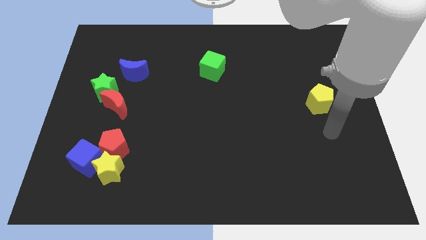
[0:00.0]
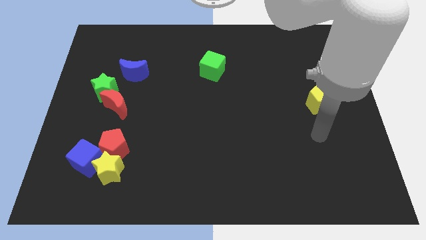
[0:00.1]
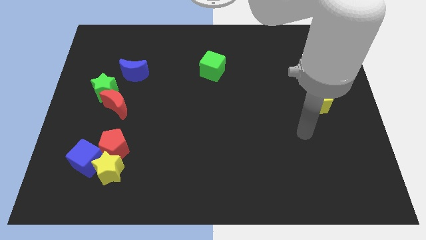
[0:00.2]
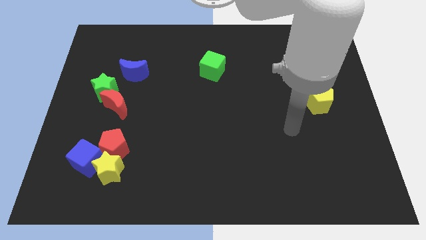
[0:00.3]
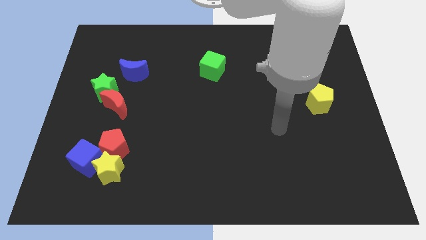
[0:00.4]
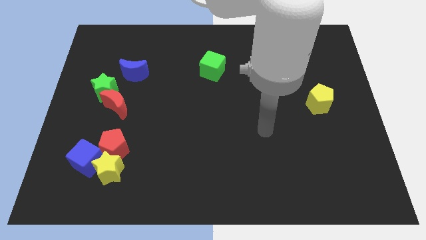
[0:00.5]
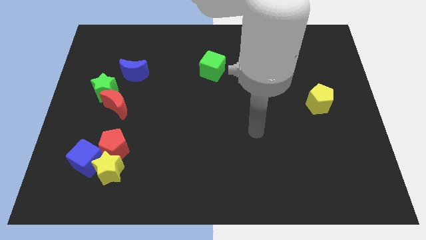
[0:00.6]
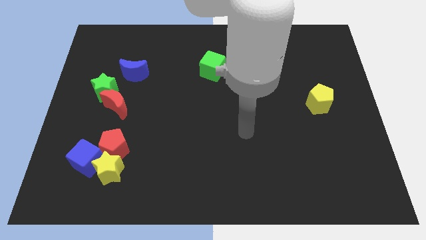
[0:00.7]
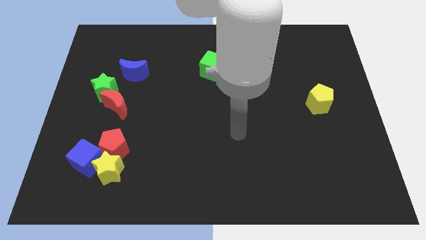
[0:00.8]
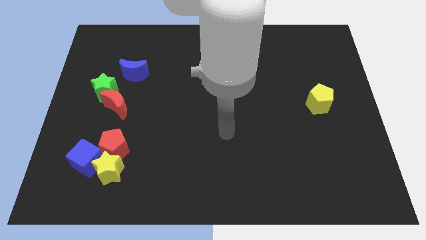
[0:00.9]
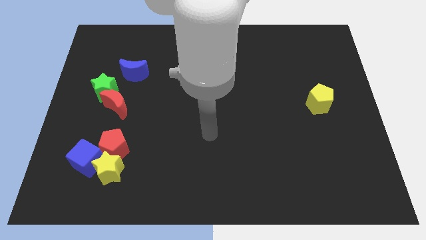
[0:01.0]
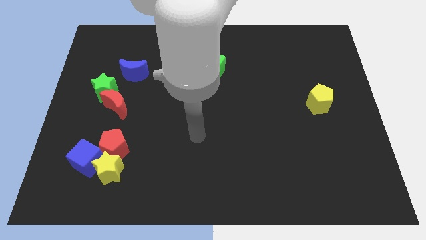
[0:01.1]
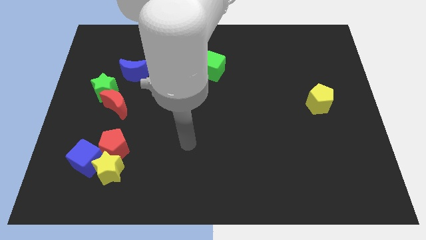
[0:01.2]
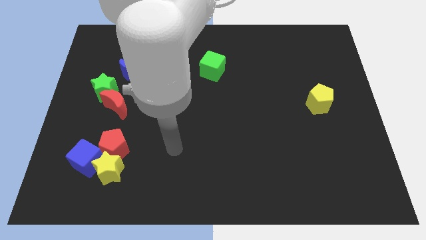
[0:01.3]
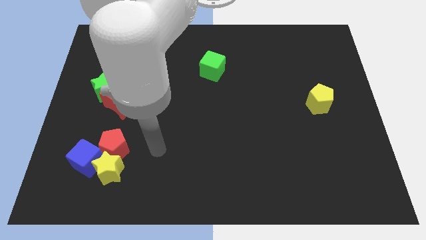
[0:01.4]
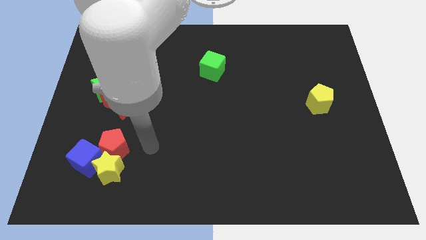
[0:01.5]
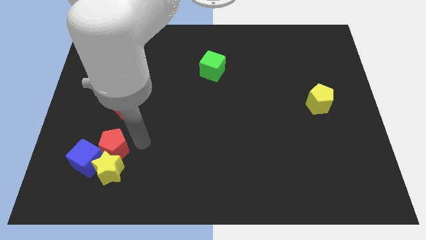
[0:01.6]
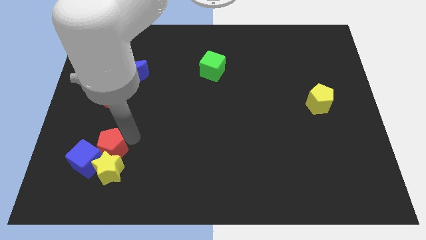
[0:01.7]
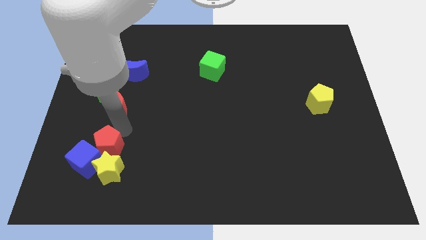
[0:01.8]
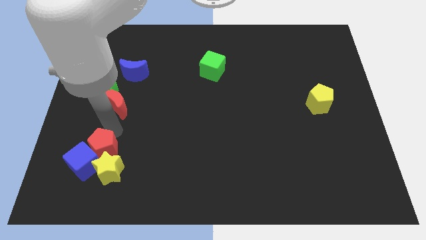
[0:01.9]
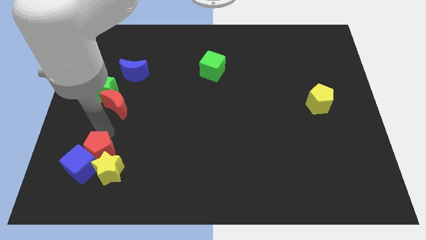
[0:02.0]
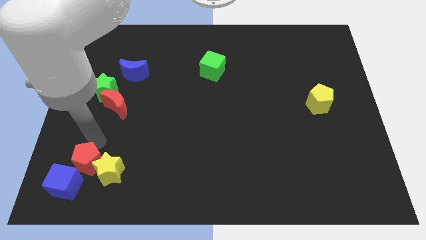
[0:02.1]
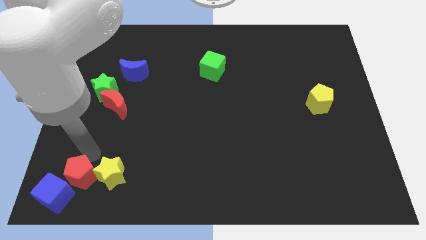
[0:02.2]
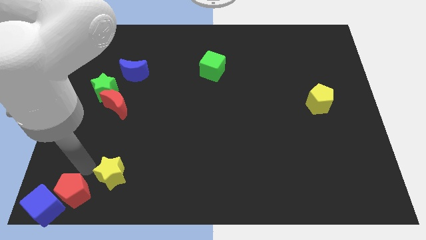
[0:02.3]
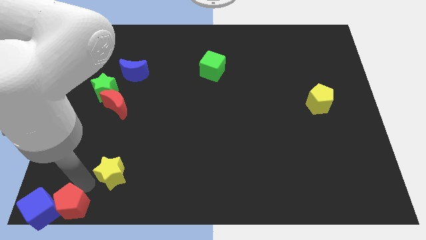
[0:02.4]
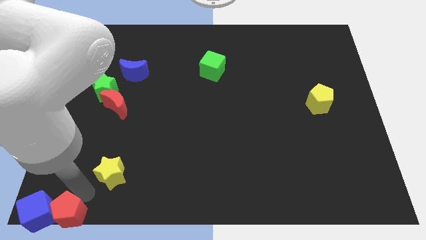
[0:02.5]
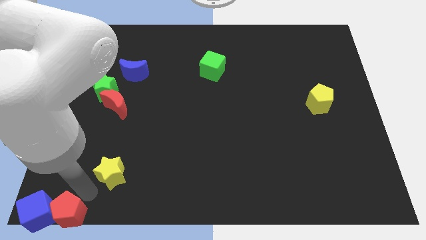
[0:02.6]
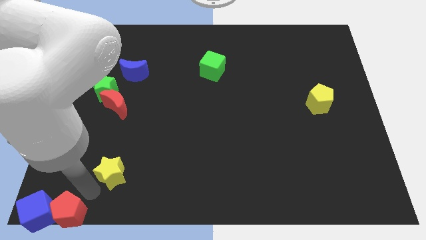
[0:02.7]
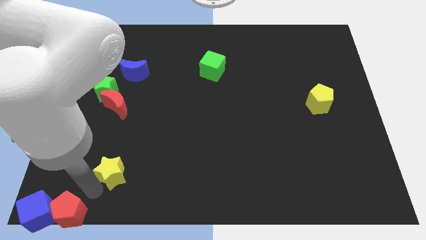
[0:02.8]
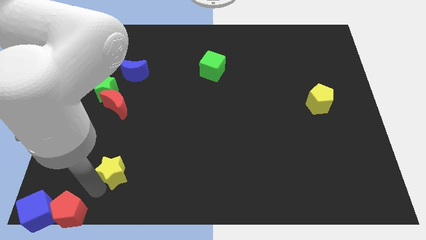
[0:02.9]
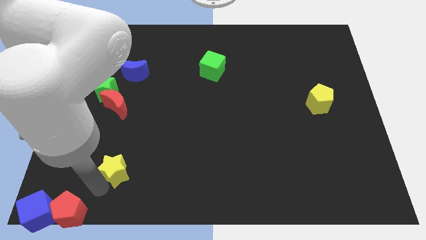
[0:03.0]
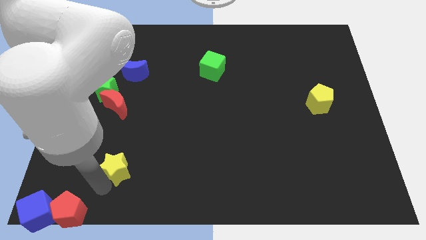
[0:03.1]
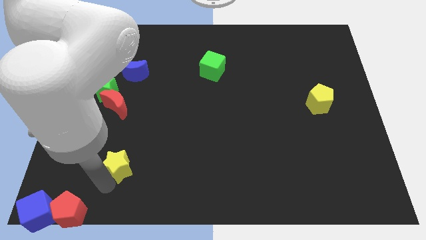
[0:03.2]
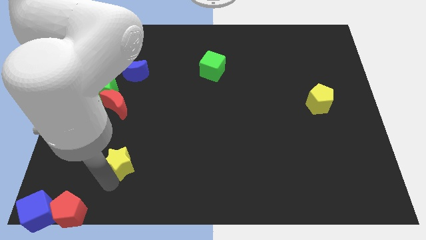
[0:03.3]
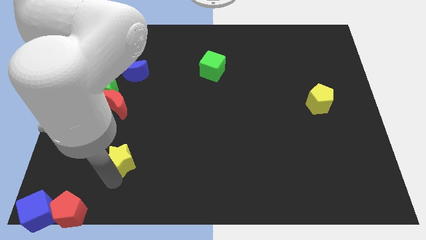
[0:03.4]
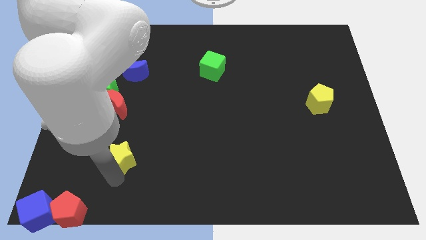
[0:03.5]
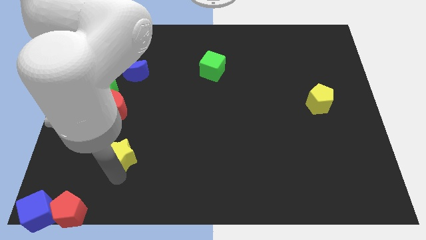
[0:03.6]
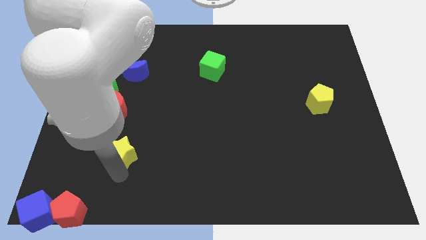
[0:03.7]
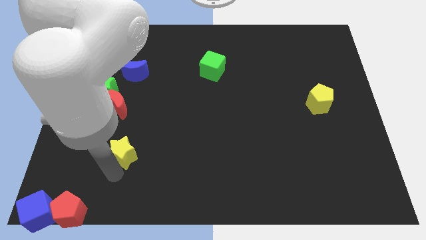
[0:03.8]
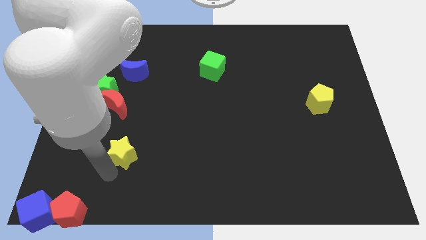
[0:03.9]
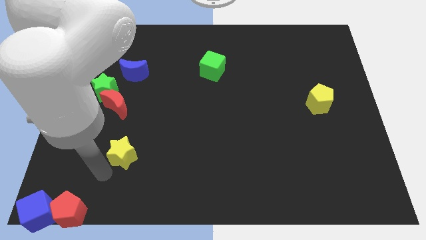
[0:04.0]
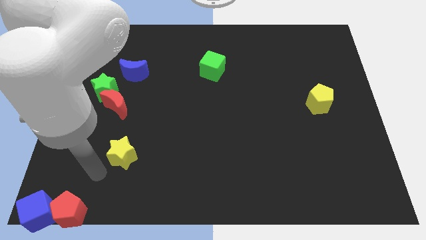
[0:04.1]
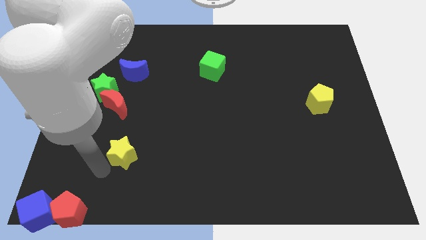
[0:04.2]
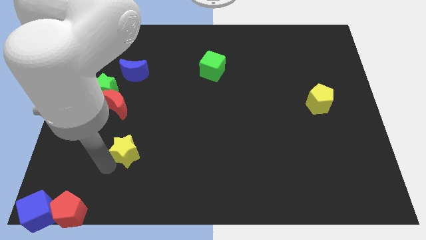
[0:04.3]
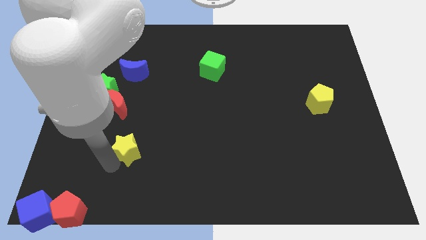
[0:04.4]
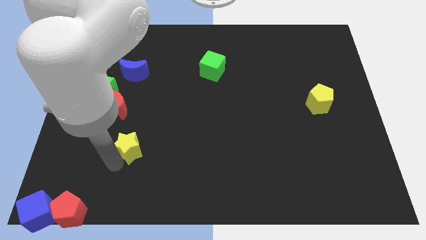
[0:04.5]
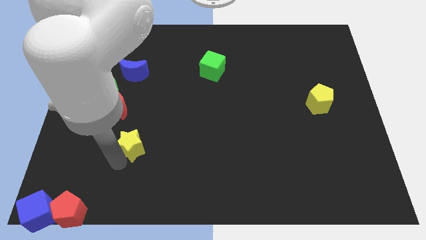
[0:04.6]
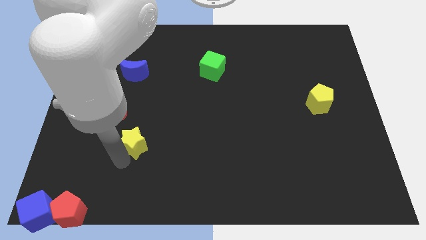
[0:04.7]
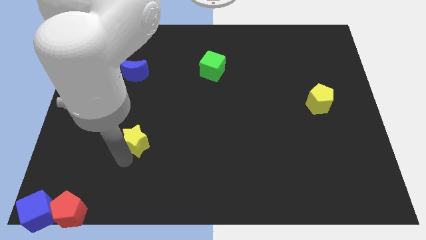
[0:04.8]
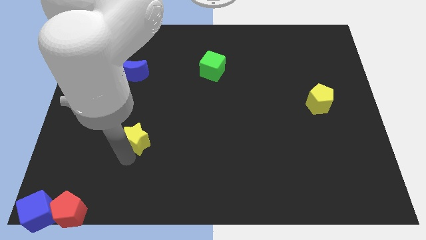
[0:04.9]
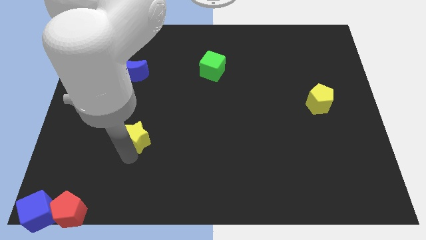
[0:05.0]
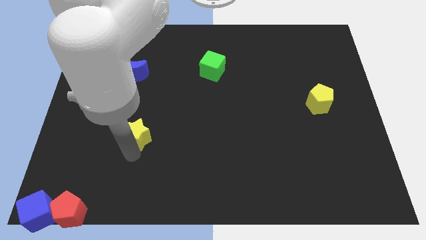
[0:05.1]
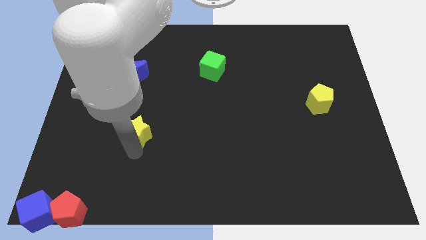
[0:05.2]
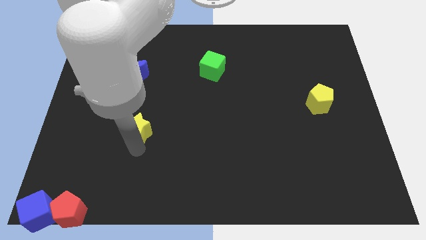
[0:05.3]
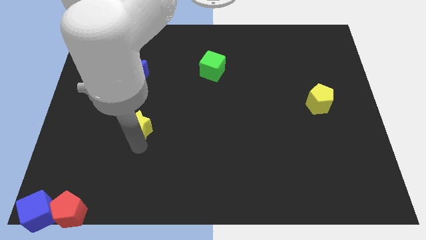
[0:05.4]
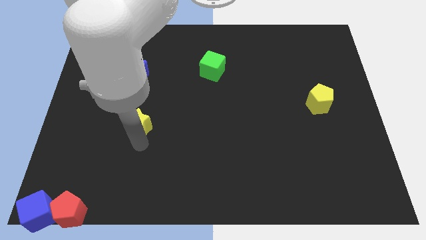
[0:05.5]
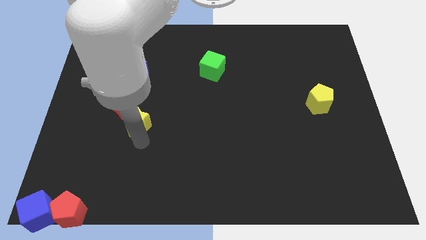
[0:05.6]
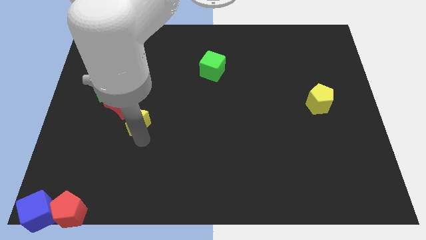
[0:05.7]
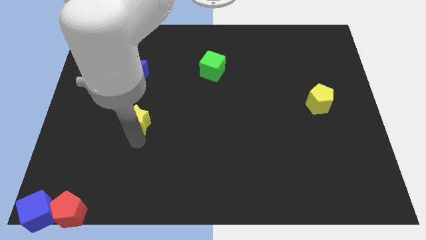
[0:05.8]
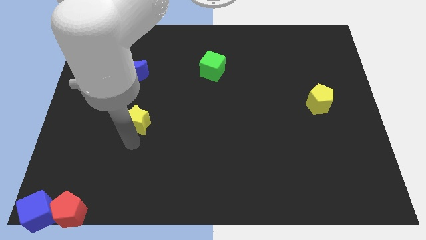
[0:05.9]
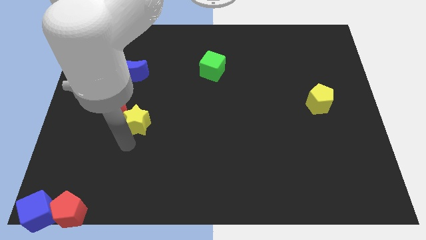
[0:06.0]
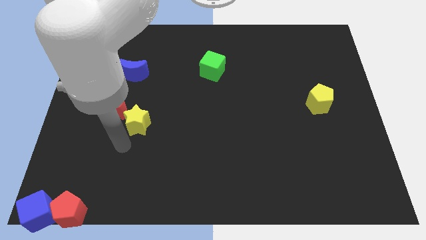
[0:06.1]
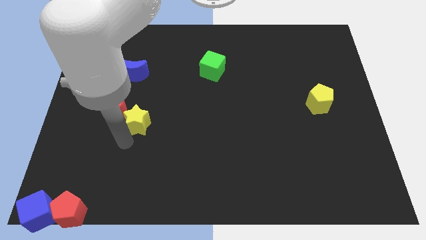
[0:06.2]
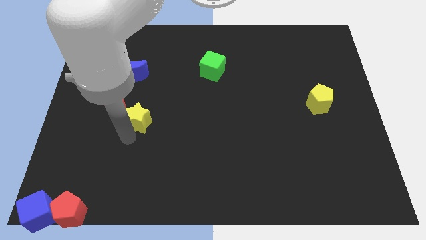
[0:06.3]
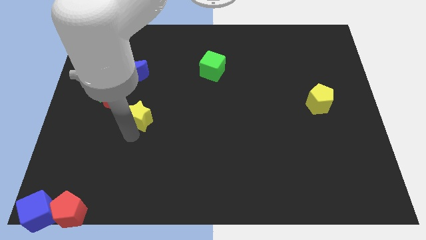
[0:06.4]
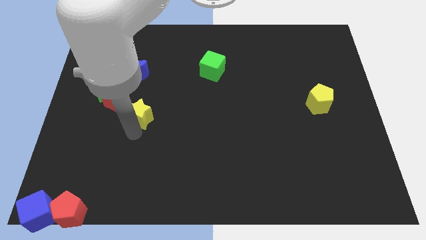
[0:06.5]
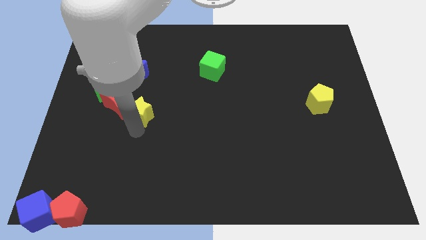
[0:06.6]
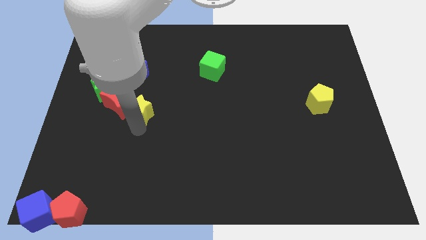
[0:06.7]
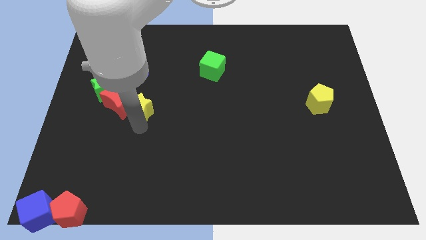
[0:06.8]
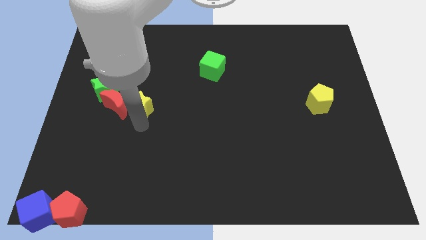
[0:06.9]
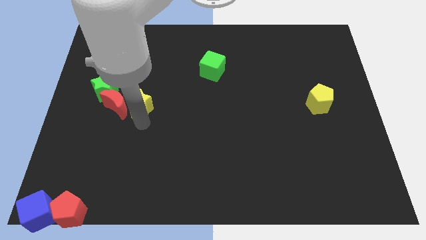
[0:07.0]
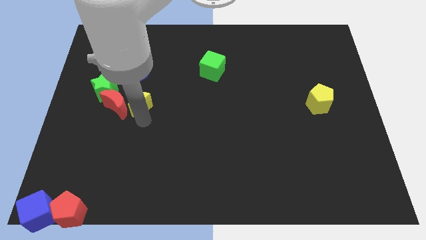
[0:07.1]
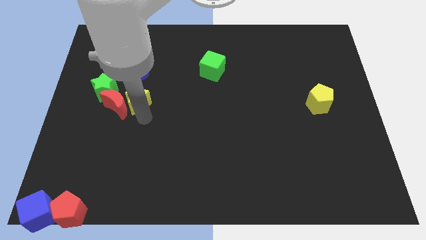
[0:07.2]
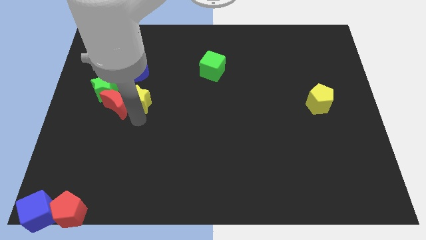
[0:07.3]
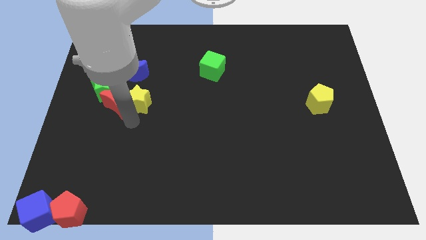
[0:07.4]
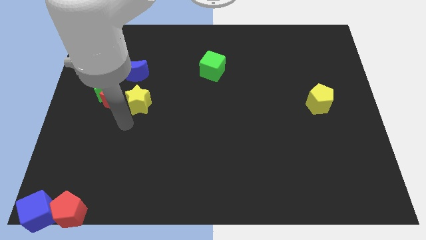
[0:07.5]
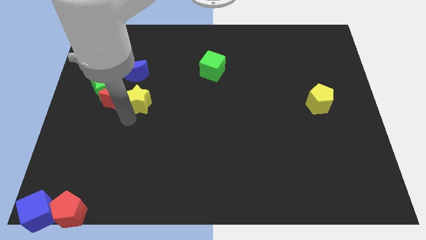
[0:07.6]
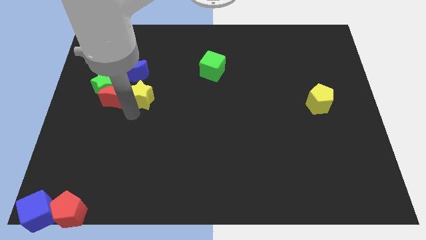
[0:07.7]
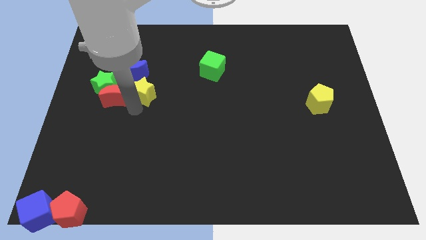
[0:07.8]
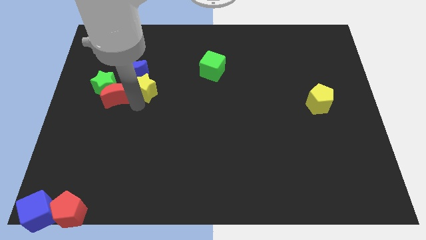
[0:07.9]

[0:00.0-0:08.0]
slide the yellow star upwards
